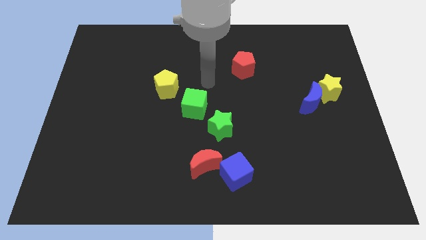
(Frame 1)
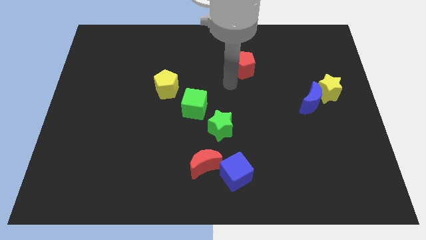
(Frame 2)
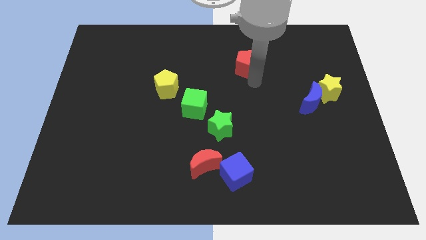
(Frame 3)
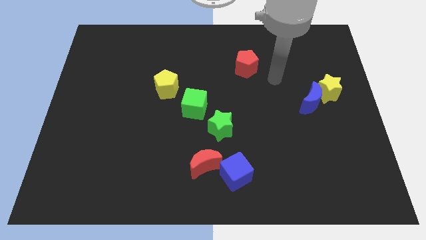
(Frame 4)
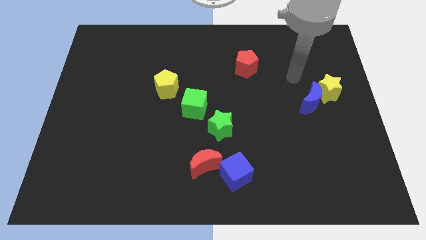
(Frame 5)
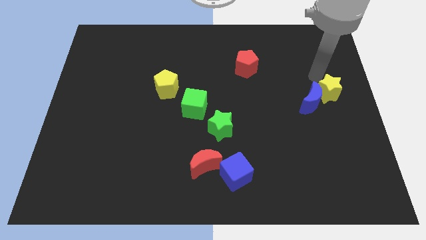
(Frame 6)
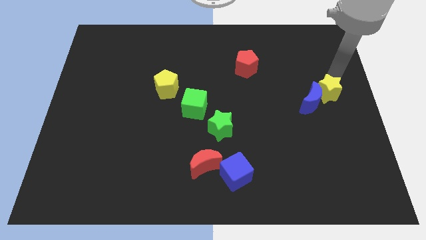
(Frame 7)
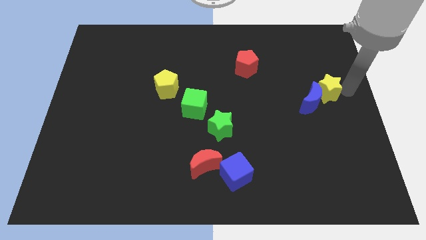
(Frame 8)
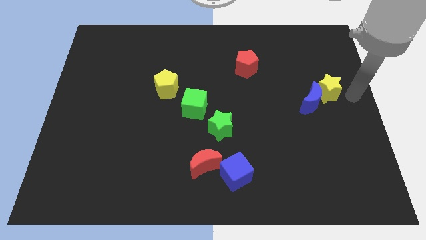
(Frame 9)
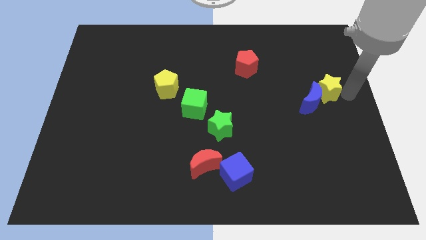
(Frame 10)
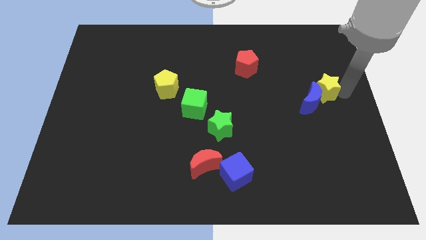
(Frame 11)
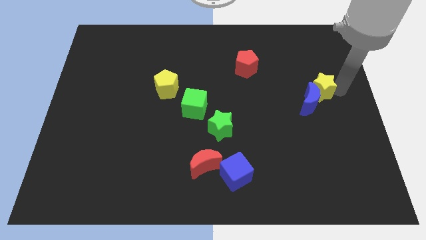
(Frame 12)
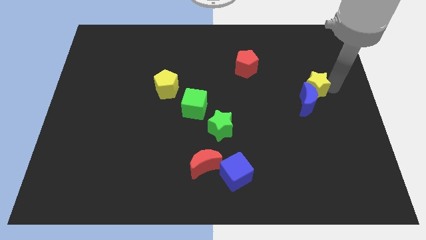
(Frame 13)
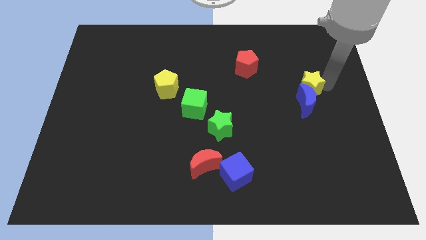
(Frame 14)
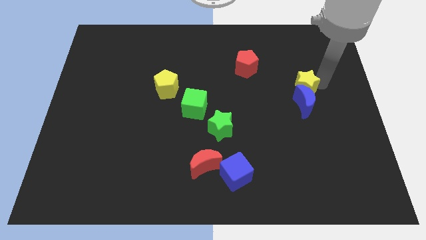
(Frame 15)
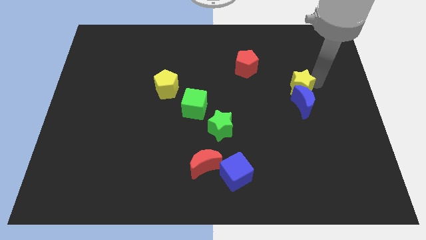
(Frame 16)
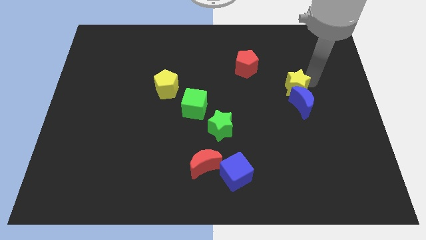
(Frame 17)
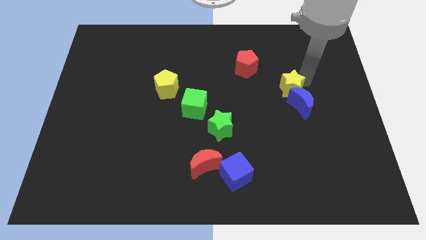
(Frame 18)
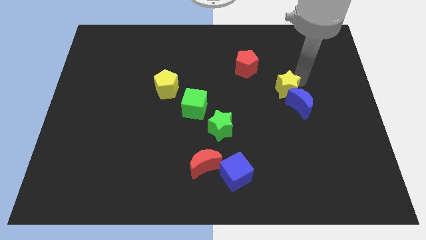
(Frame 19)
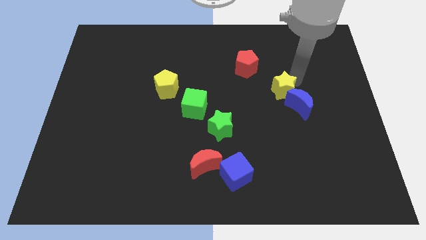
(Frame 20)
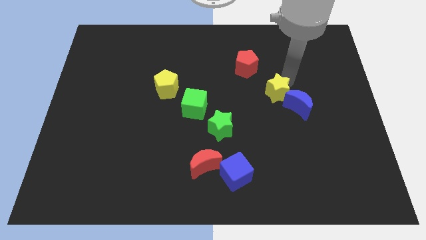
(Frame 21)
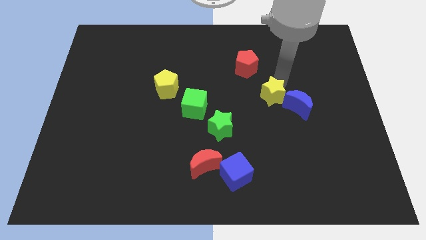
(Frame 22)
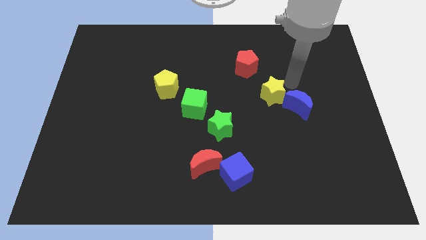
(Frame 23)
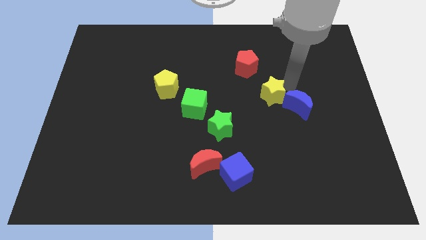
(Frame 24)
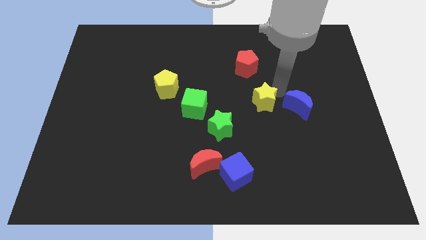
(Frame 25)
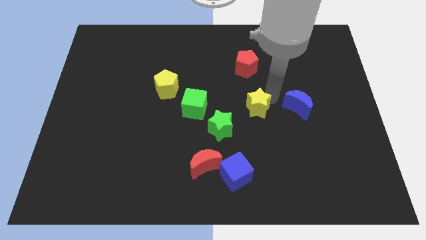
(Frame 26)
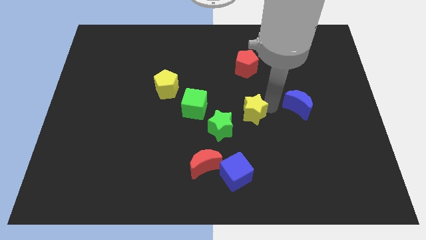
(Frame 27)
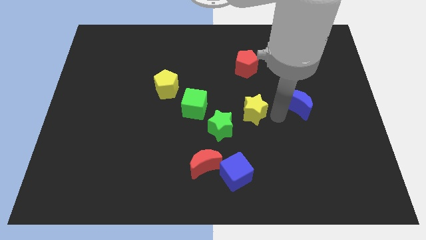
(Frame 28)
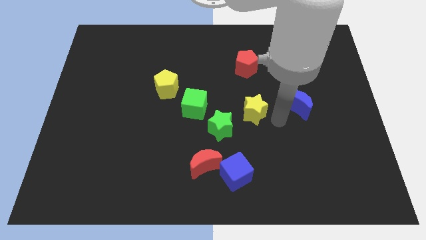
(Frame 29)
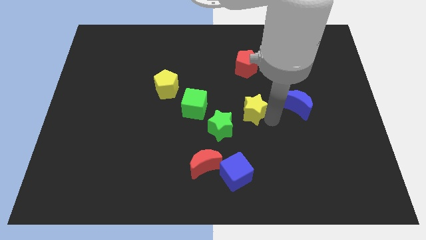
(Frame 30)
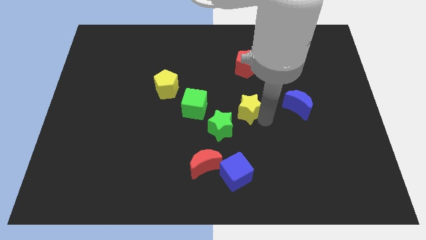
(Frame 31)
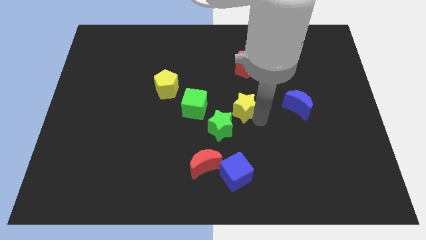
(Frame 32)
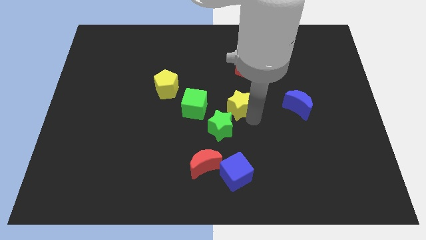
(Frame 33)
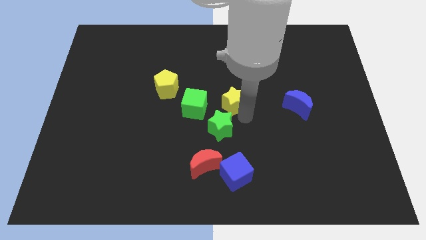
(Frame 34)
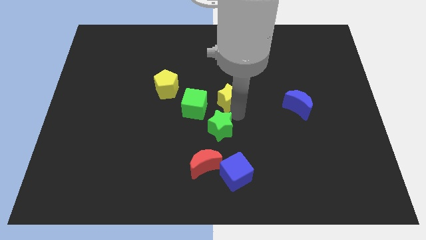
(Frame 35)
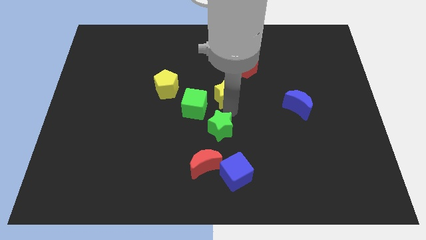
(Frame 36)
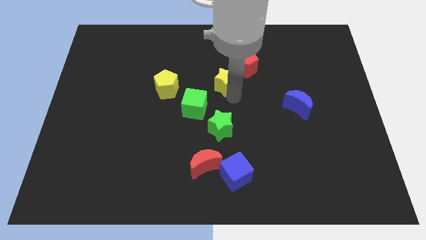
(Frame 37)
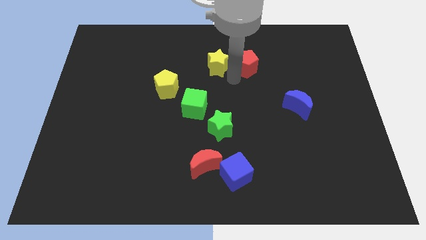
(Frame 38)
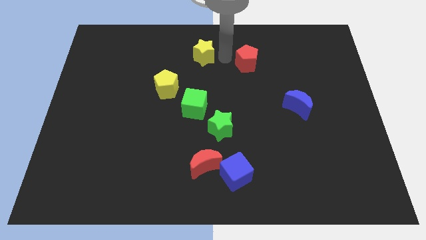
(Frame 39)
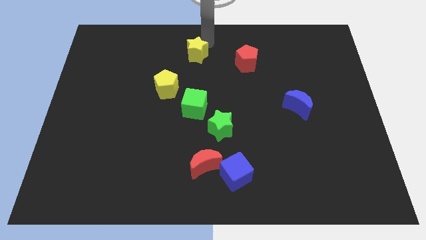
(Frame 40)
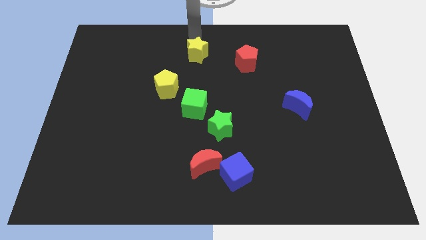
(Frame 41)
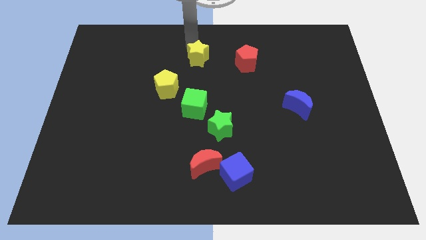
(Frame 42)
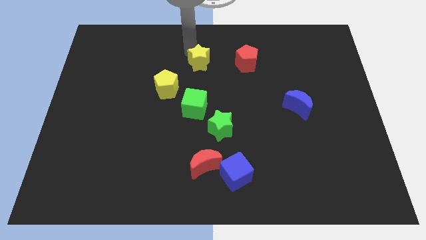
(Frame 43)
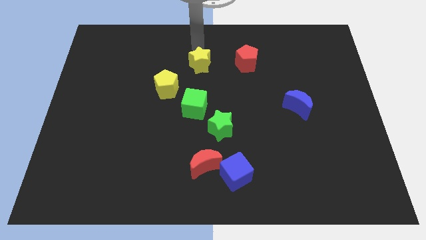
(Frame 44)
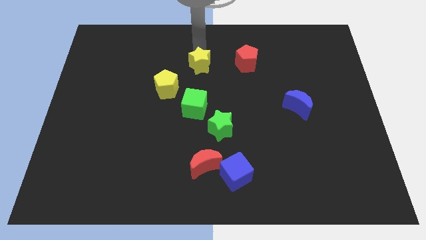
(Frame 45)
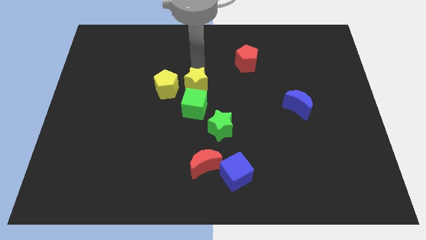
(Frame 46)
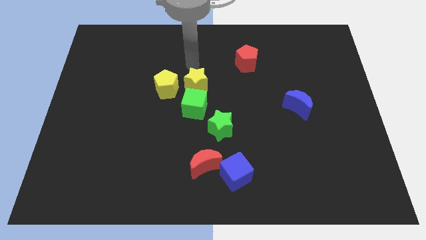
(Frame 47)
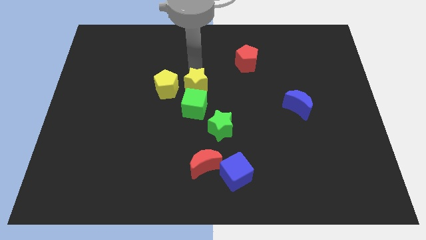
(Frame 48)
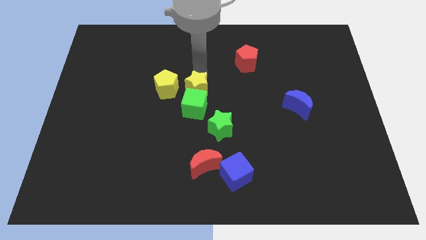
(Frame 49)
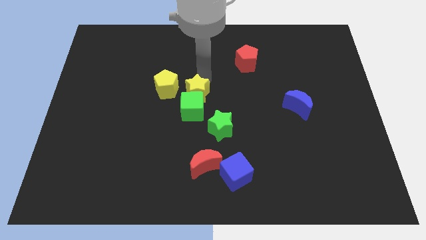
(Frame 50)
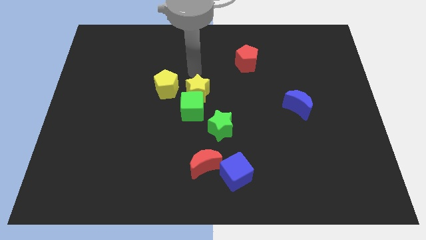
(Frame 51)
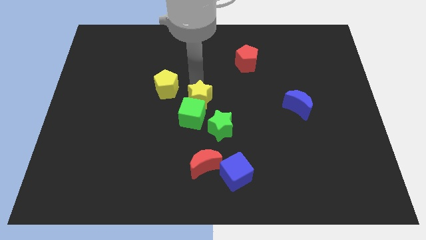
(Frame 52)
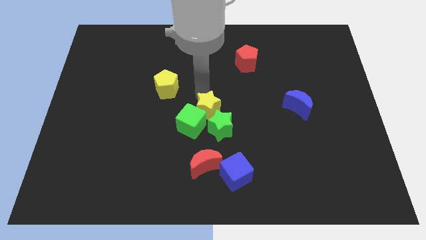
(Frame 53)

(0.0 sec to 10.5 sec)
put the yellow star to the top of the red moon

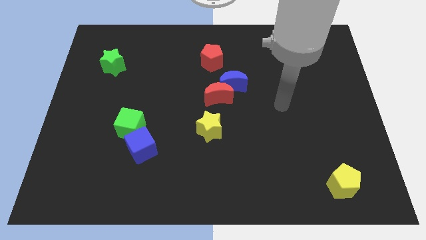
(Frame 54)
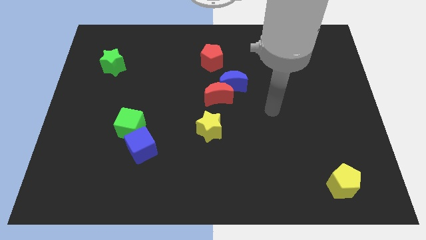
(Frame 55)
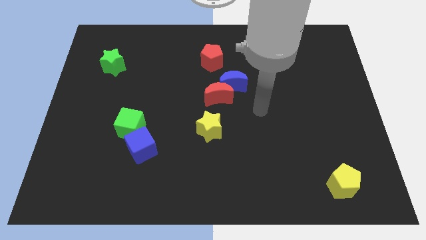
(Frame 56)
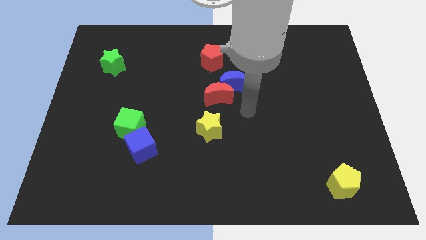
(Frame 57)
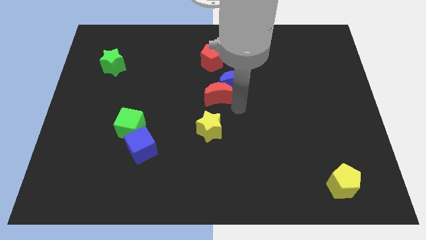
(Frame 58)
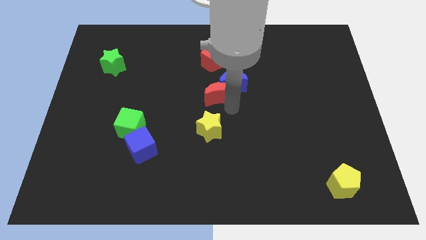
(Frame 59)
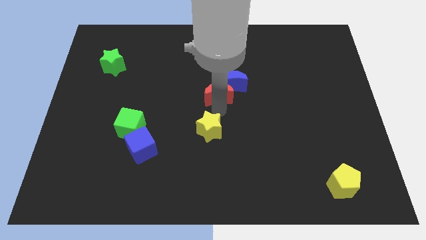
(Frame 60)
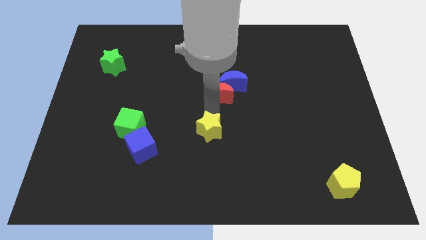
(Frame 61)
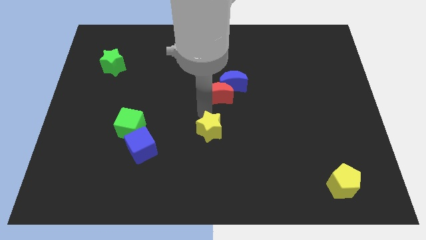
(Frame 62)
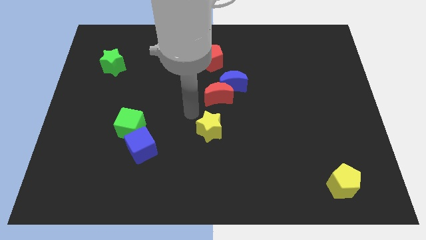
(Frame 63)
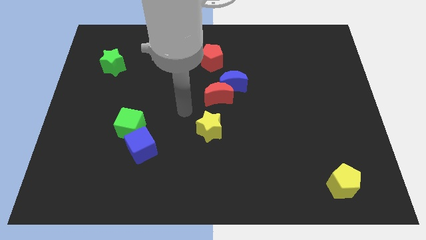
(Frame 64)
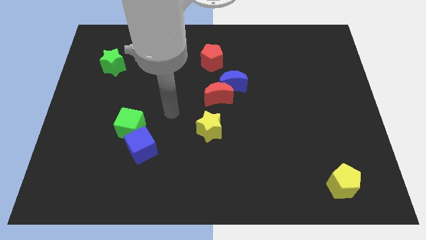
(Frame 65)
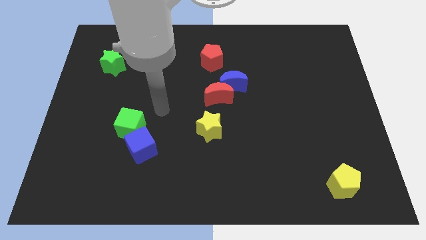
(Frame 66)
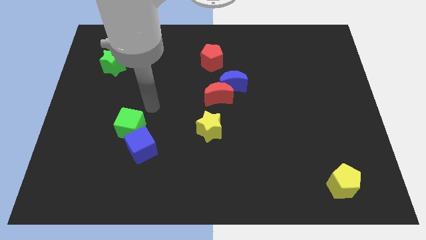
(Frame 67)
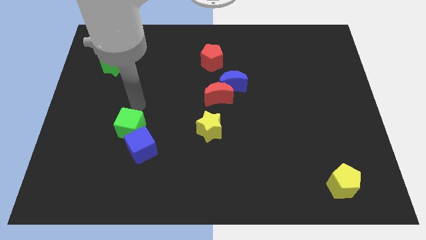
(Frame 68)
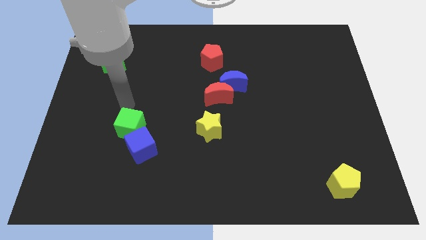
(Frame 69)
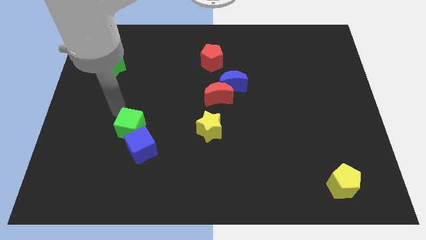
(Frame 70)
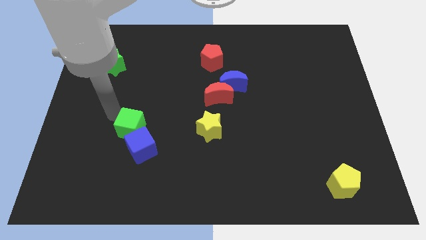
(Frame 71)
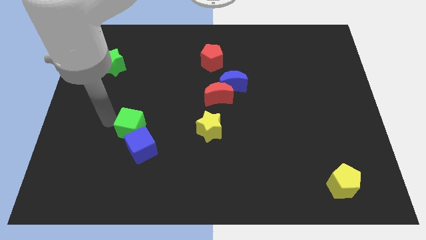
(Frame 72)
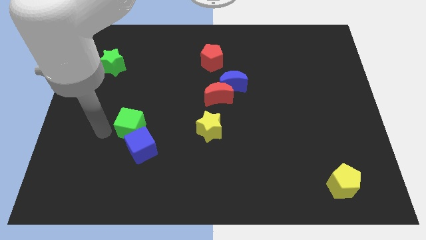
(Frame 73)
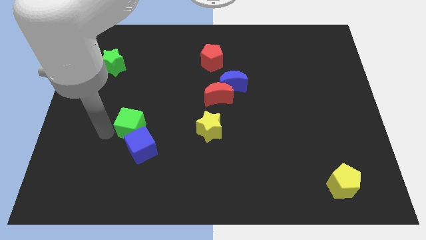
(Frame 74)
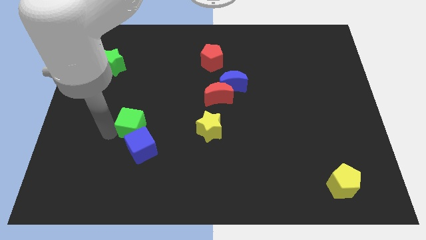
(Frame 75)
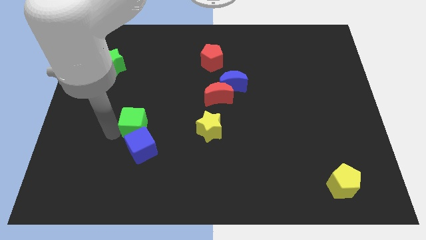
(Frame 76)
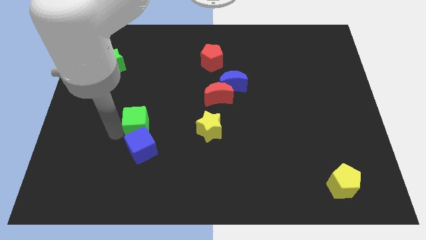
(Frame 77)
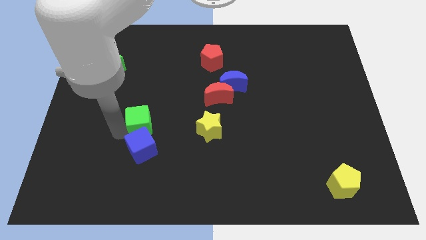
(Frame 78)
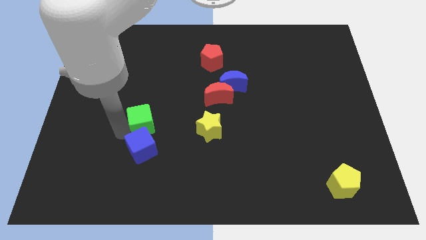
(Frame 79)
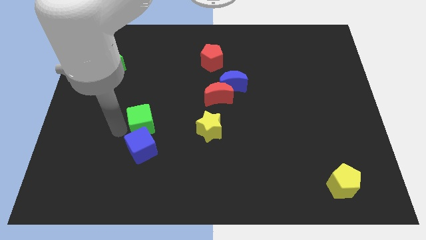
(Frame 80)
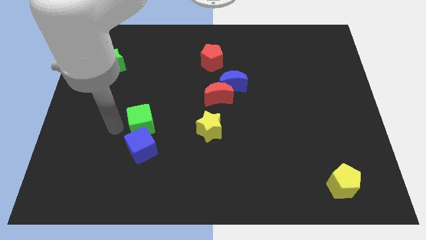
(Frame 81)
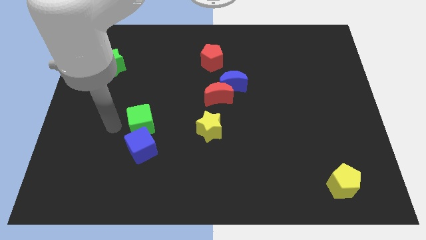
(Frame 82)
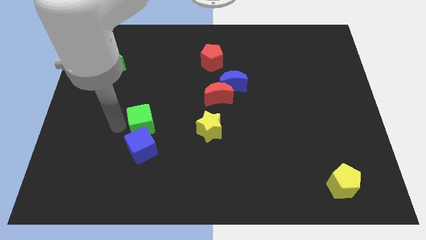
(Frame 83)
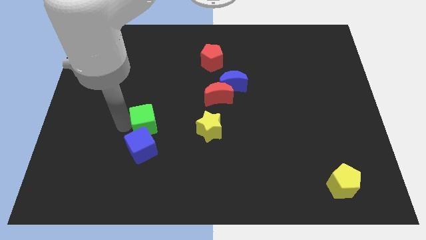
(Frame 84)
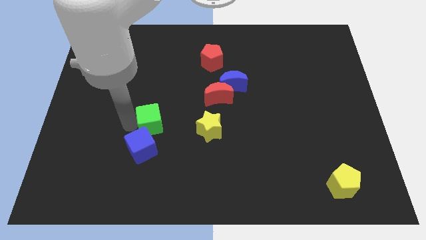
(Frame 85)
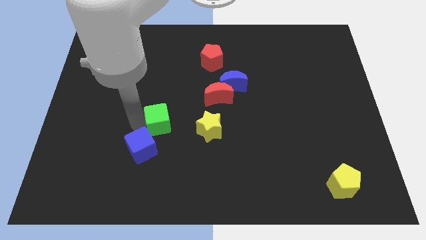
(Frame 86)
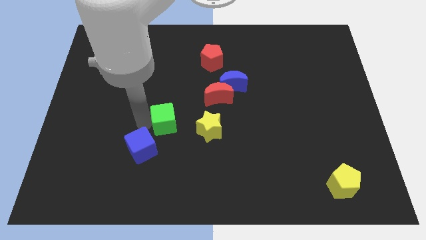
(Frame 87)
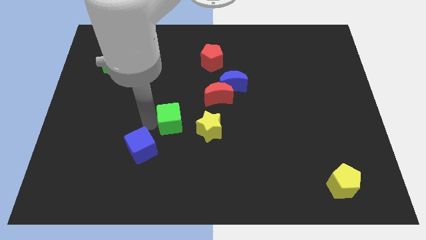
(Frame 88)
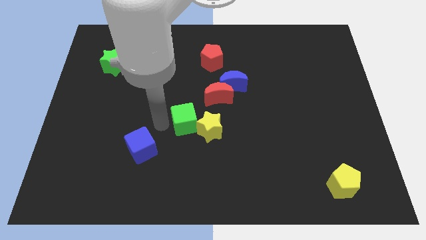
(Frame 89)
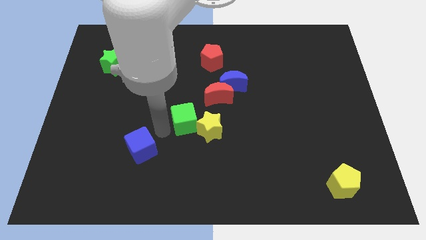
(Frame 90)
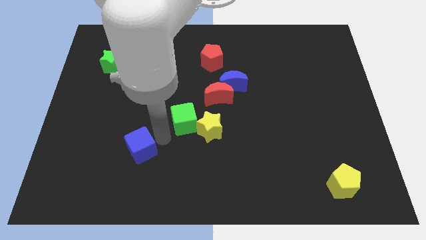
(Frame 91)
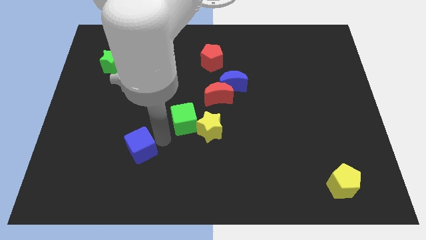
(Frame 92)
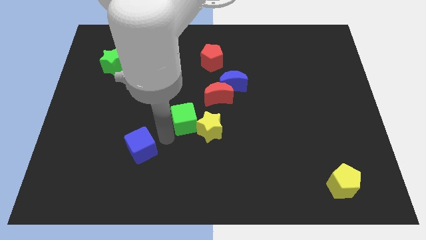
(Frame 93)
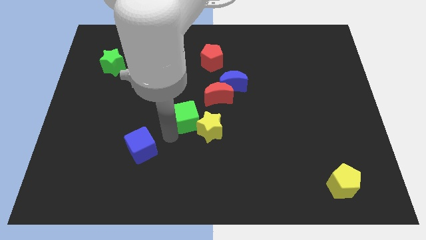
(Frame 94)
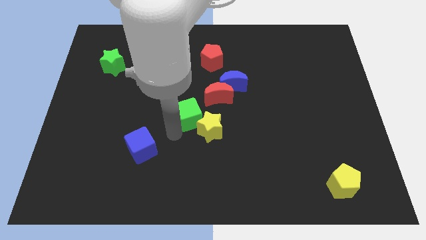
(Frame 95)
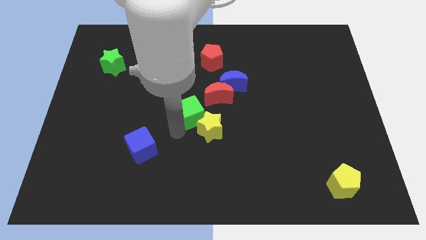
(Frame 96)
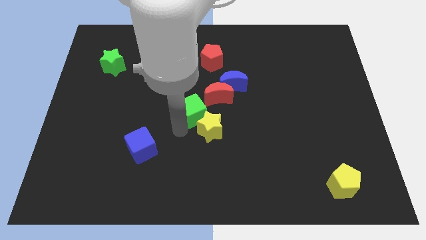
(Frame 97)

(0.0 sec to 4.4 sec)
push the green cube to the bottom left of the blue moon
